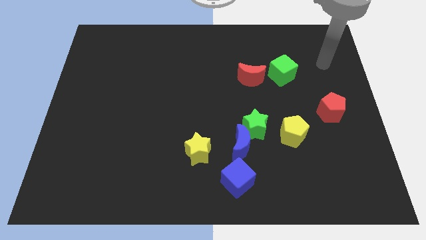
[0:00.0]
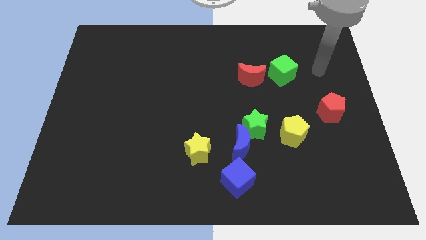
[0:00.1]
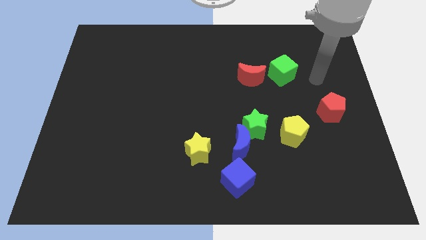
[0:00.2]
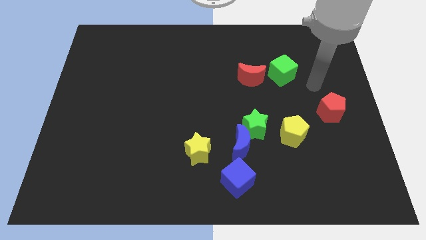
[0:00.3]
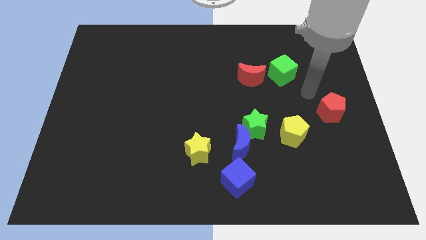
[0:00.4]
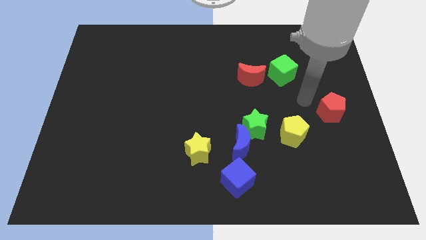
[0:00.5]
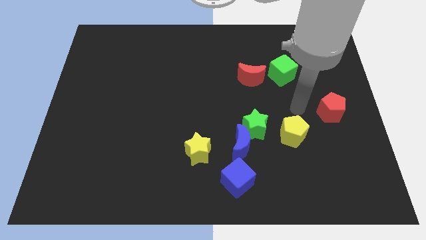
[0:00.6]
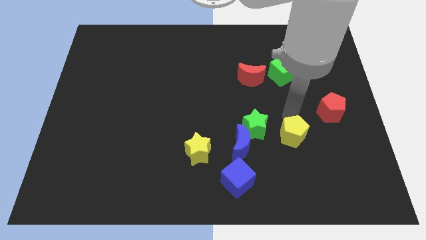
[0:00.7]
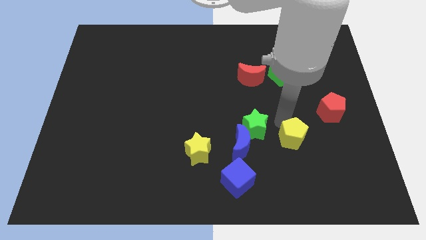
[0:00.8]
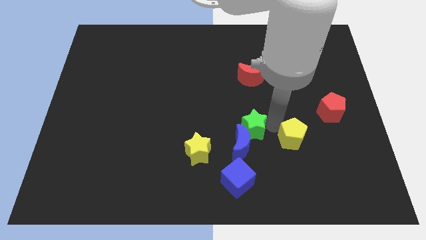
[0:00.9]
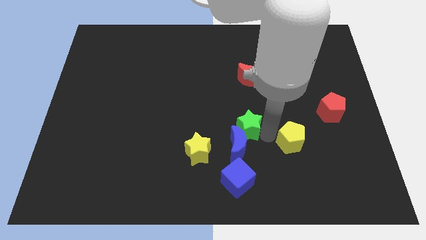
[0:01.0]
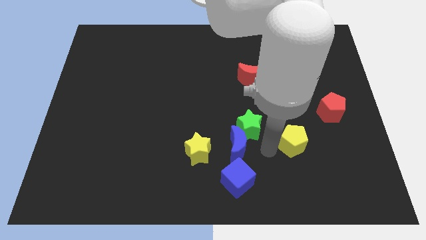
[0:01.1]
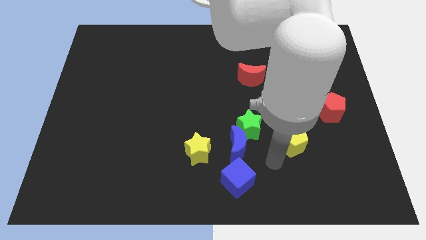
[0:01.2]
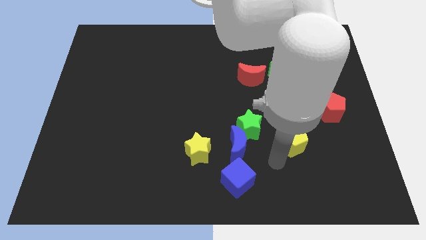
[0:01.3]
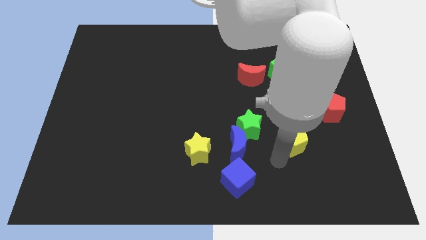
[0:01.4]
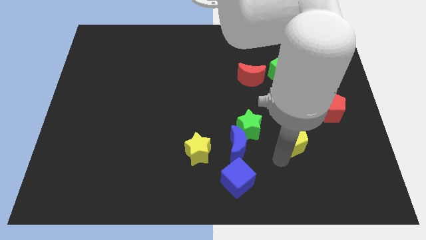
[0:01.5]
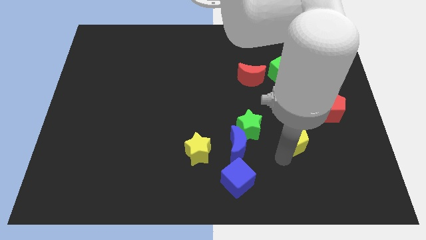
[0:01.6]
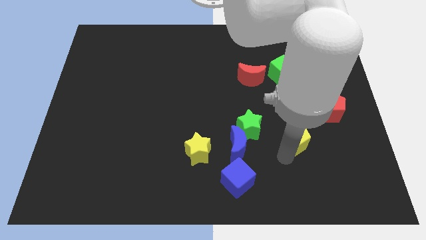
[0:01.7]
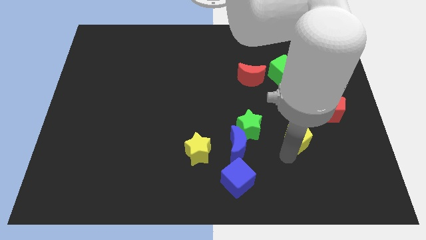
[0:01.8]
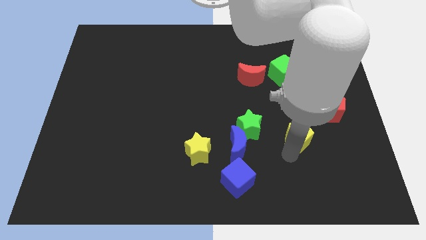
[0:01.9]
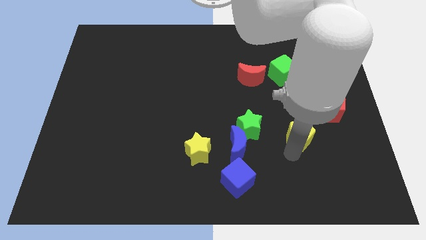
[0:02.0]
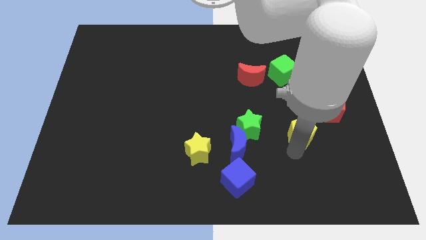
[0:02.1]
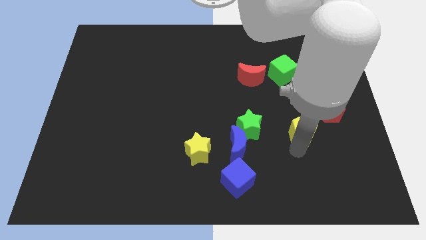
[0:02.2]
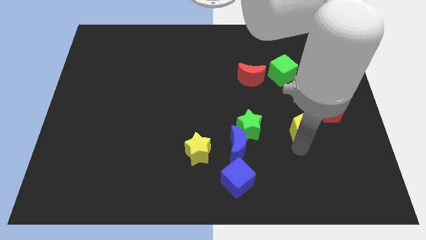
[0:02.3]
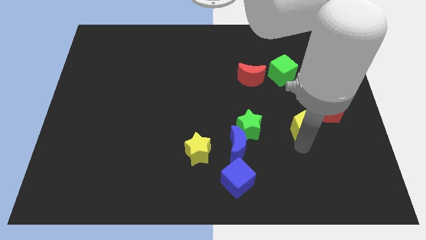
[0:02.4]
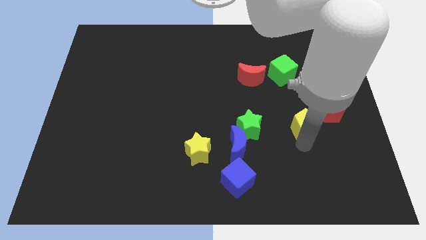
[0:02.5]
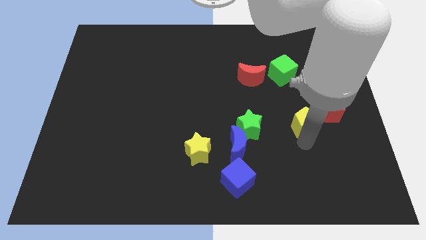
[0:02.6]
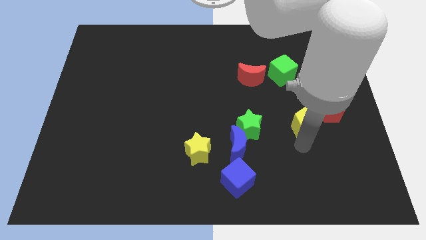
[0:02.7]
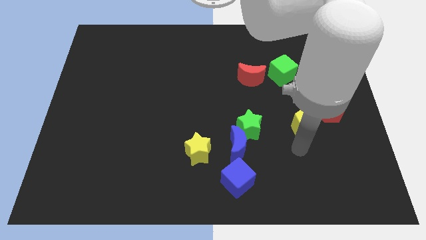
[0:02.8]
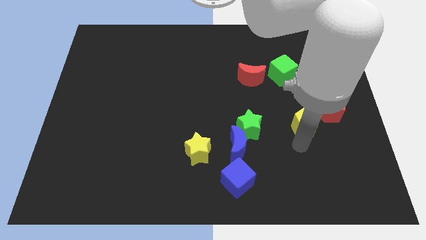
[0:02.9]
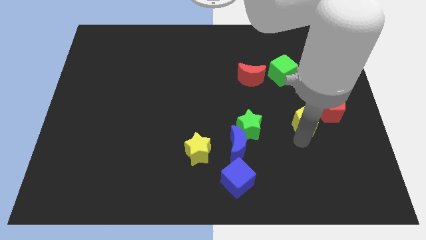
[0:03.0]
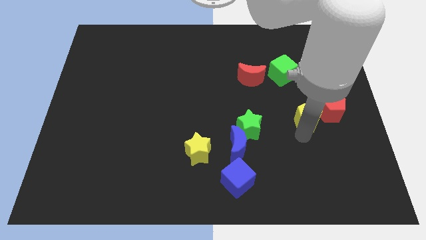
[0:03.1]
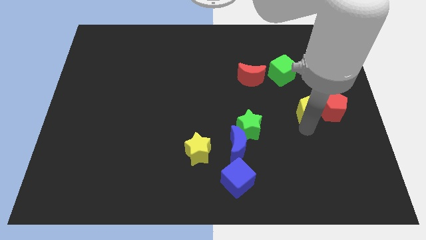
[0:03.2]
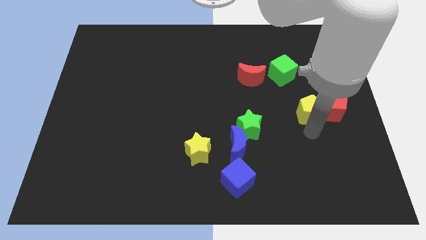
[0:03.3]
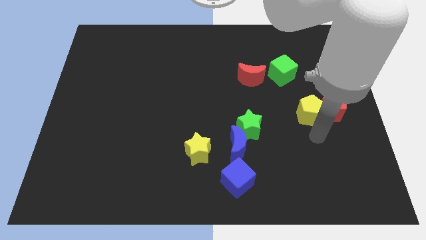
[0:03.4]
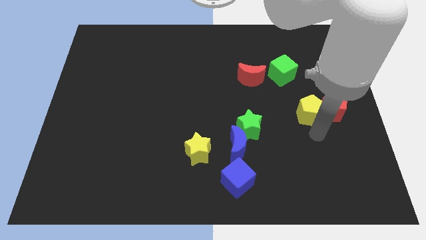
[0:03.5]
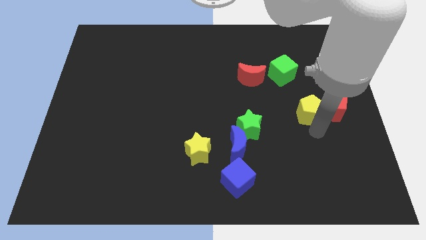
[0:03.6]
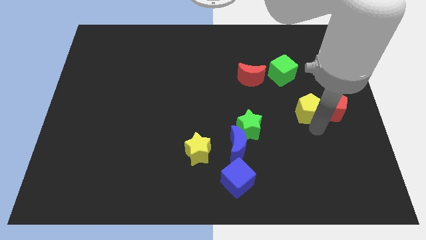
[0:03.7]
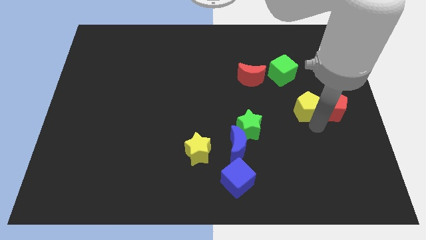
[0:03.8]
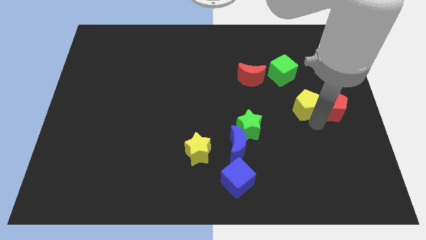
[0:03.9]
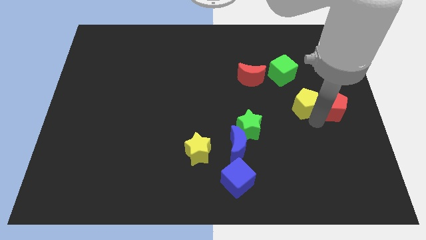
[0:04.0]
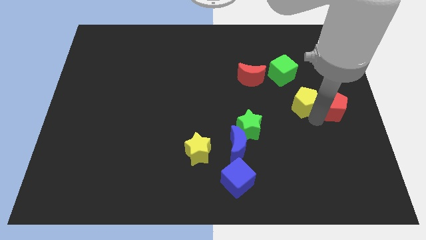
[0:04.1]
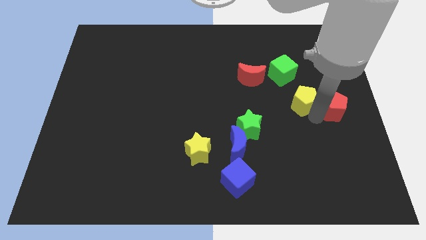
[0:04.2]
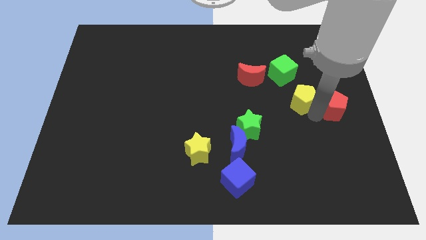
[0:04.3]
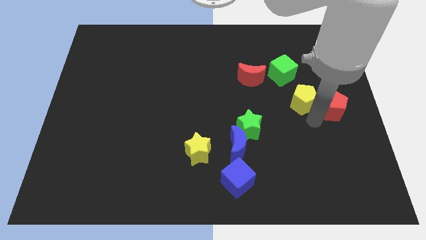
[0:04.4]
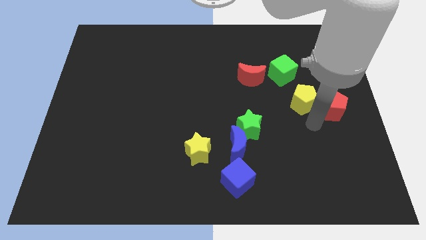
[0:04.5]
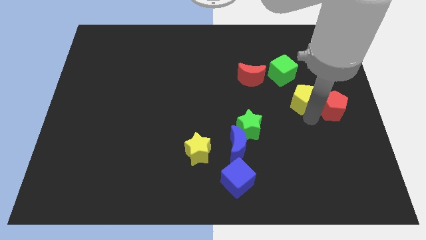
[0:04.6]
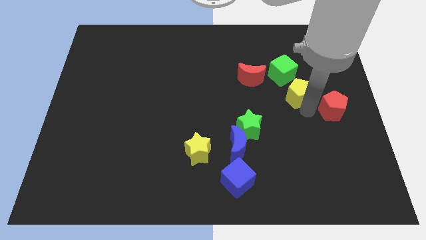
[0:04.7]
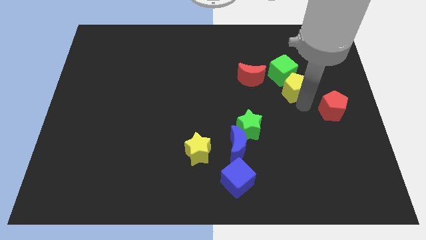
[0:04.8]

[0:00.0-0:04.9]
put the yellow pentagon just right of the red moon

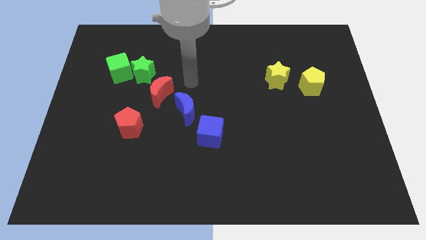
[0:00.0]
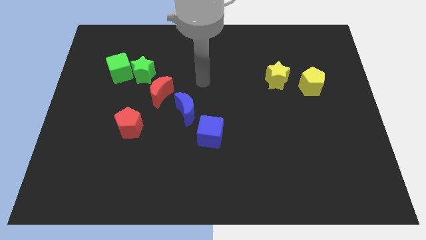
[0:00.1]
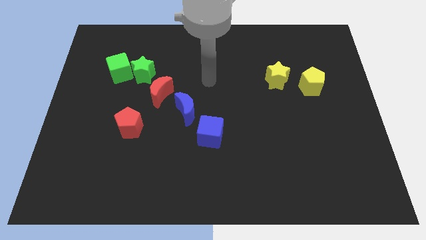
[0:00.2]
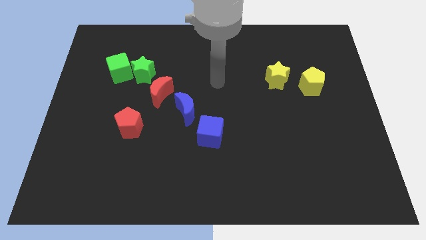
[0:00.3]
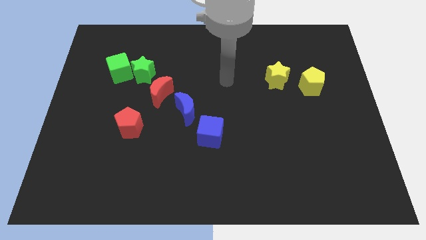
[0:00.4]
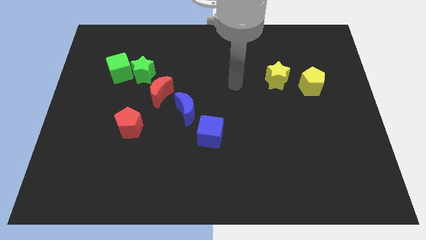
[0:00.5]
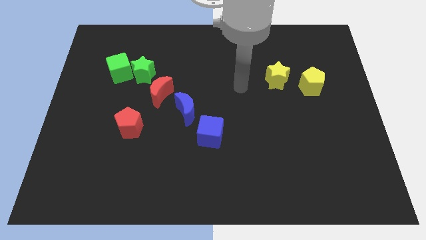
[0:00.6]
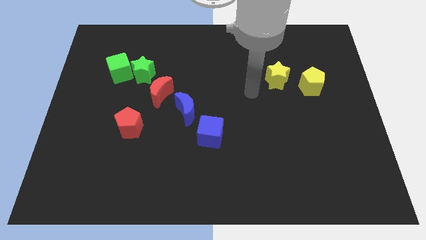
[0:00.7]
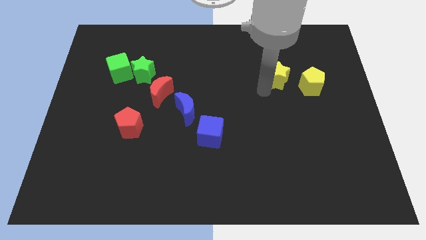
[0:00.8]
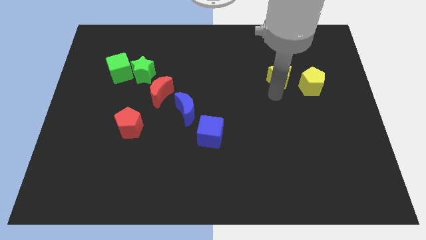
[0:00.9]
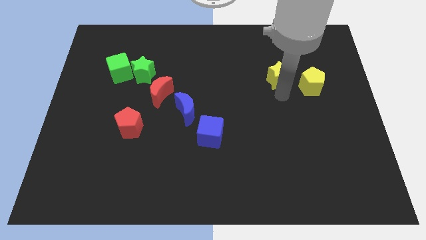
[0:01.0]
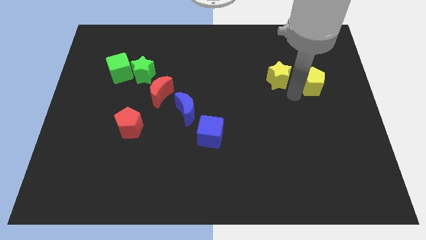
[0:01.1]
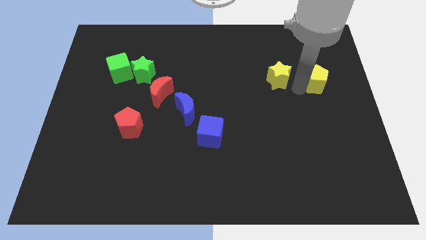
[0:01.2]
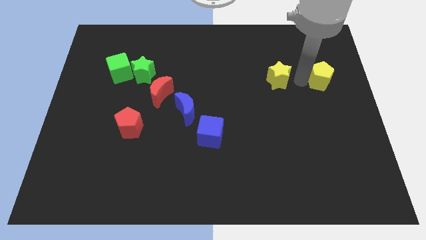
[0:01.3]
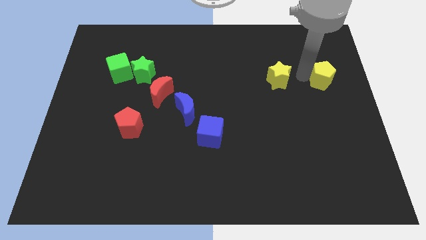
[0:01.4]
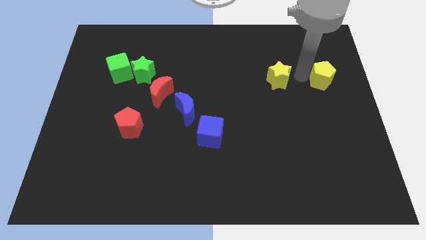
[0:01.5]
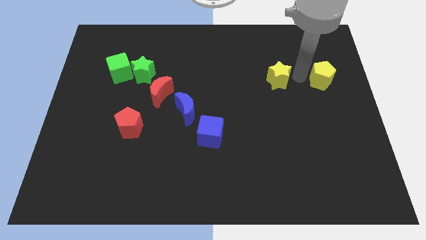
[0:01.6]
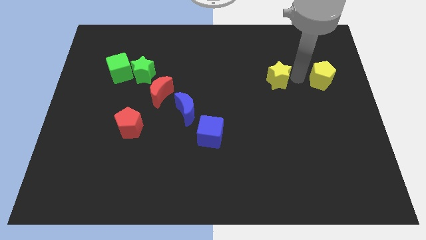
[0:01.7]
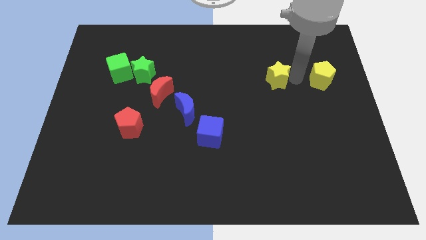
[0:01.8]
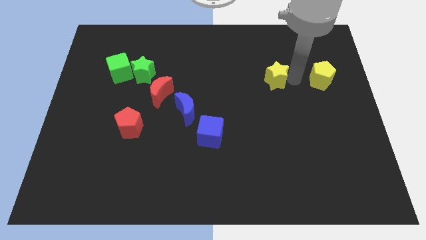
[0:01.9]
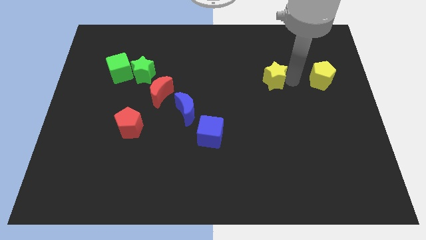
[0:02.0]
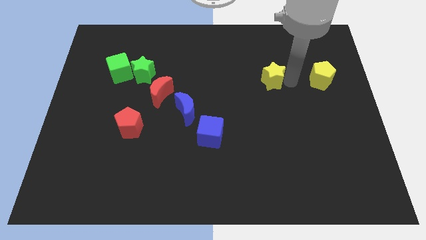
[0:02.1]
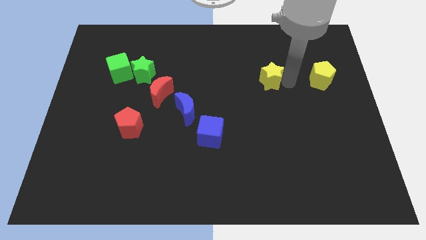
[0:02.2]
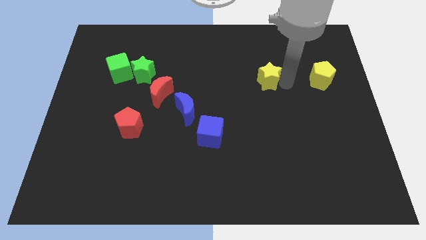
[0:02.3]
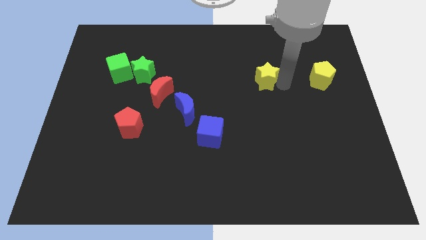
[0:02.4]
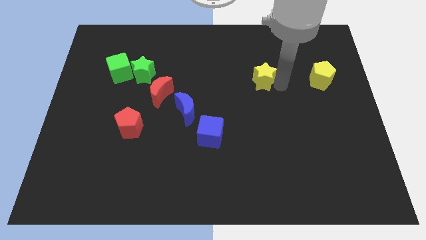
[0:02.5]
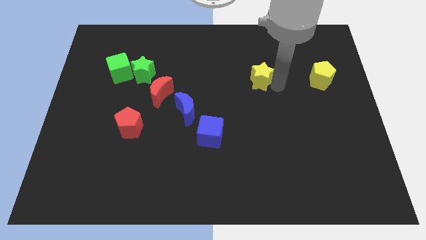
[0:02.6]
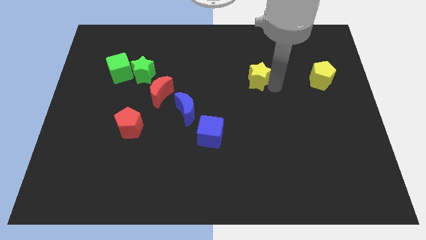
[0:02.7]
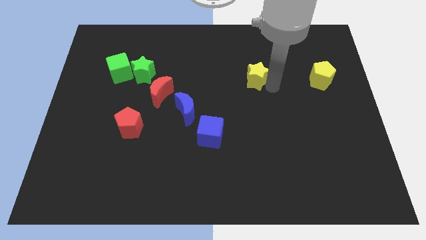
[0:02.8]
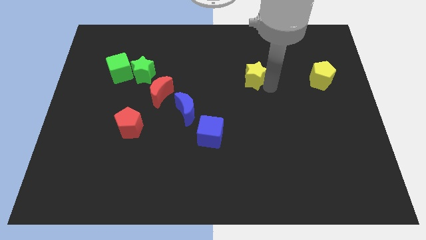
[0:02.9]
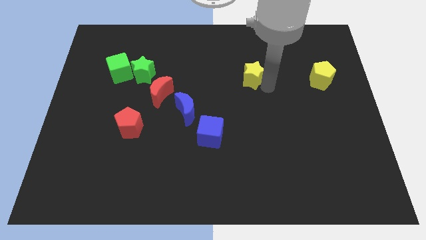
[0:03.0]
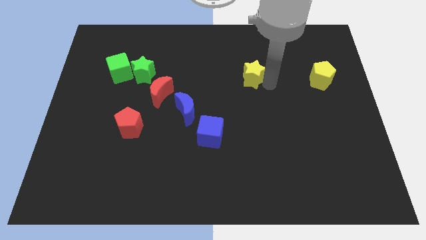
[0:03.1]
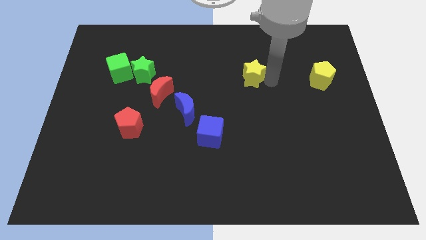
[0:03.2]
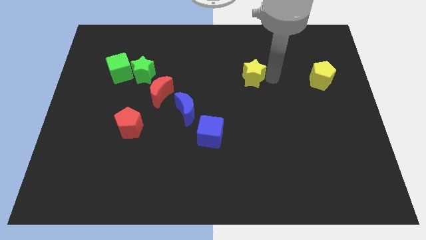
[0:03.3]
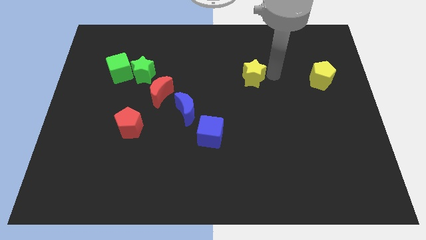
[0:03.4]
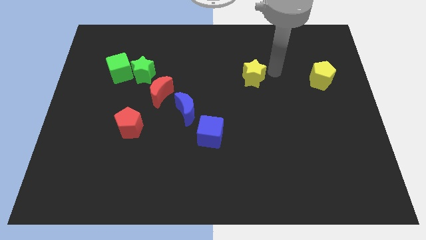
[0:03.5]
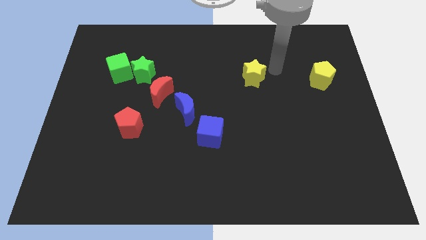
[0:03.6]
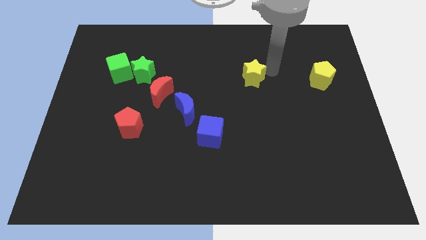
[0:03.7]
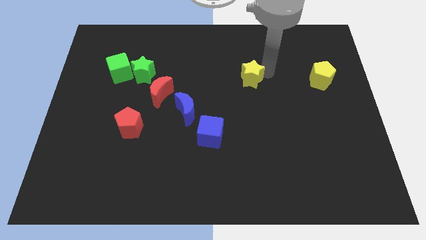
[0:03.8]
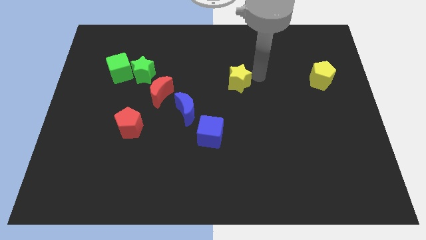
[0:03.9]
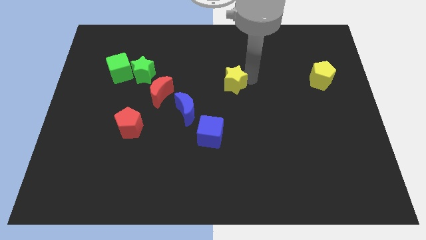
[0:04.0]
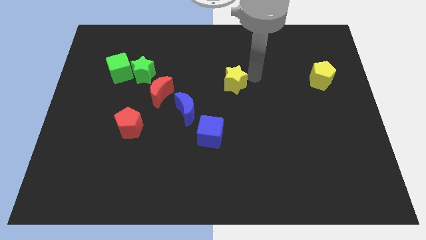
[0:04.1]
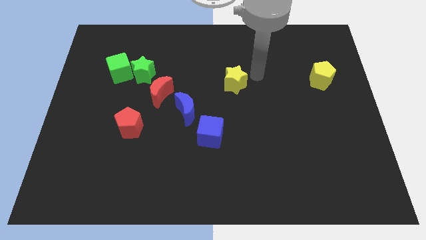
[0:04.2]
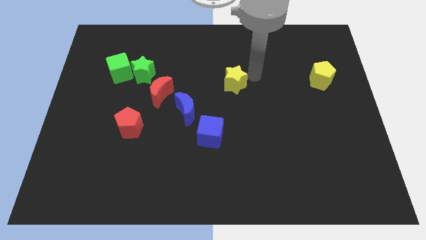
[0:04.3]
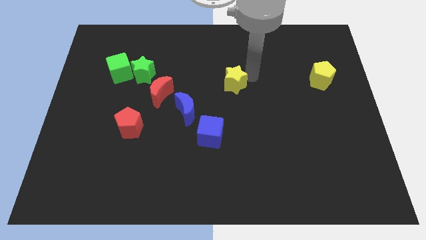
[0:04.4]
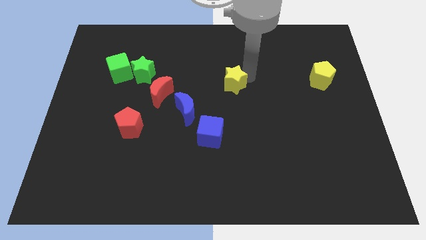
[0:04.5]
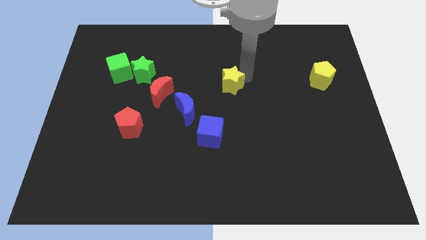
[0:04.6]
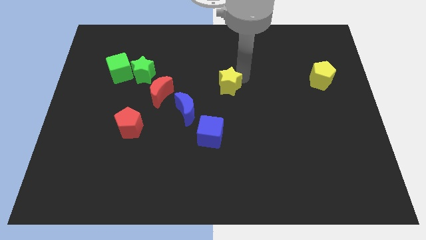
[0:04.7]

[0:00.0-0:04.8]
push the yellow star diagonally up and to the right of the blue moon
